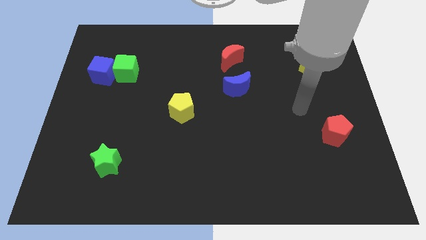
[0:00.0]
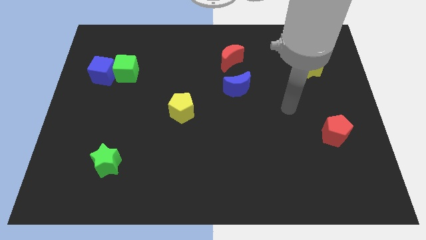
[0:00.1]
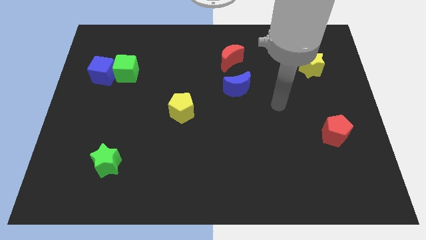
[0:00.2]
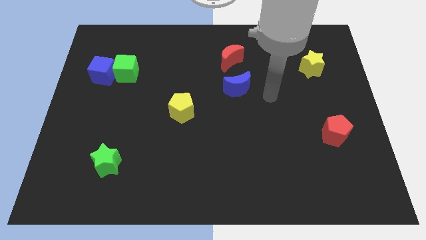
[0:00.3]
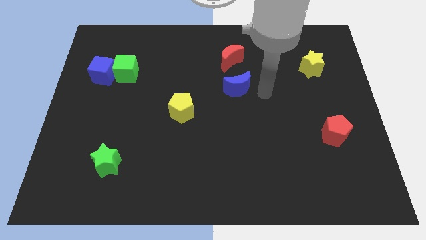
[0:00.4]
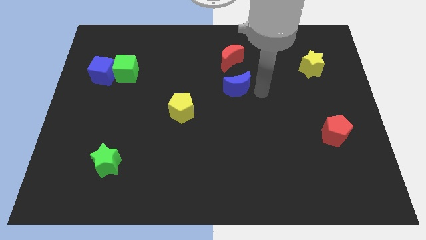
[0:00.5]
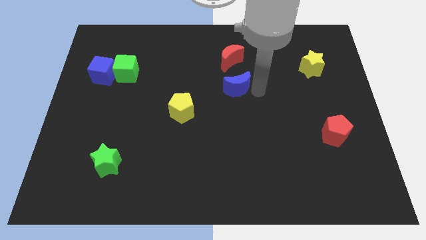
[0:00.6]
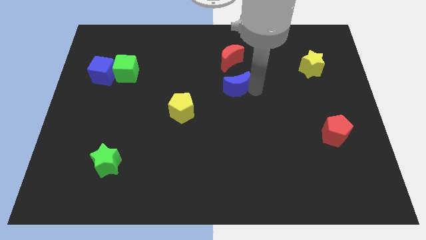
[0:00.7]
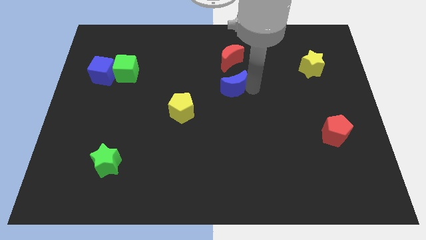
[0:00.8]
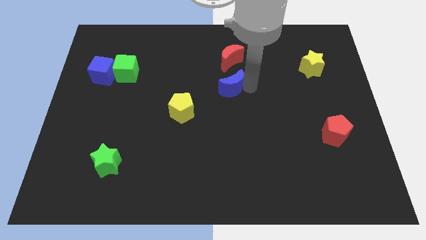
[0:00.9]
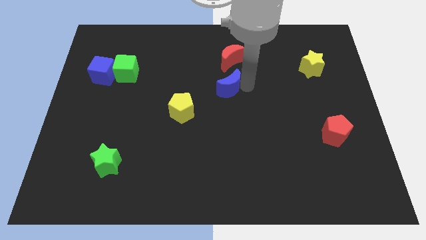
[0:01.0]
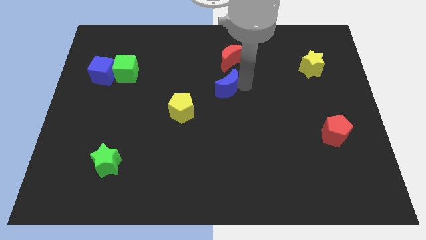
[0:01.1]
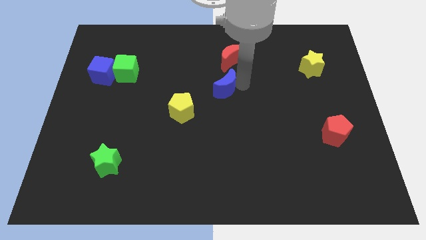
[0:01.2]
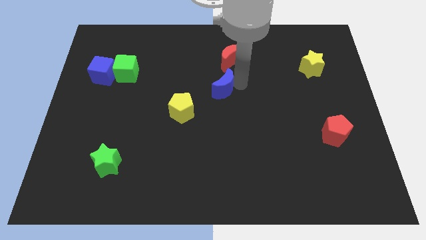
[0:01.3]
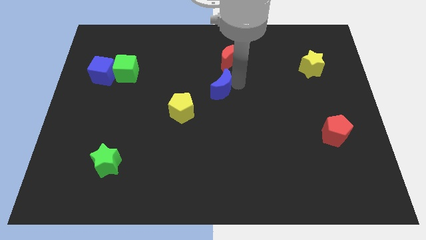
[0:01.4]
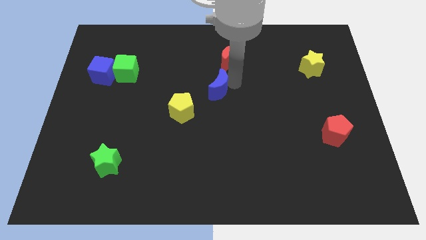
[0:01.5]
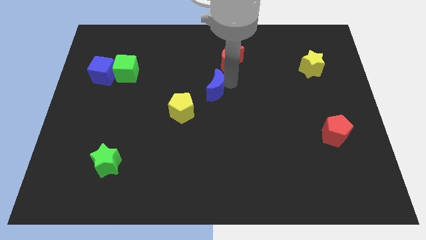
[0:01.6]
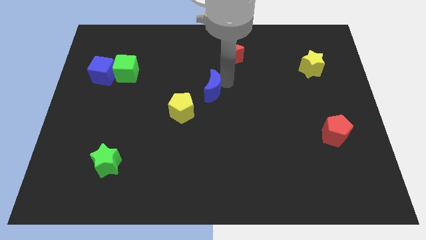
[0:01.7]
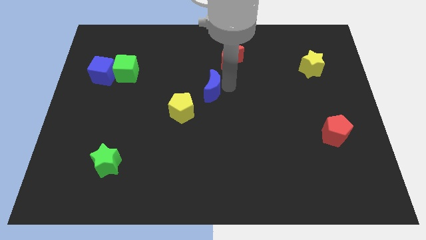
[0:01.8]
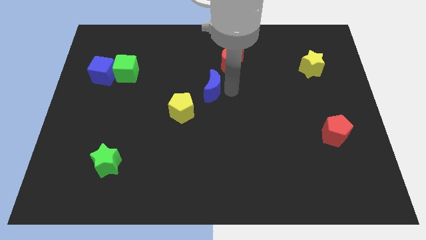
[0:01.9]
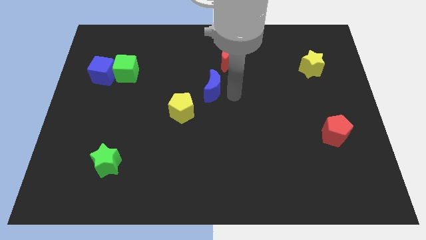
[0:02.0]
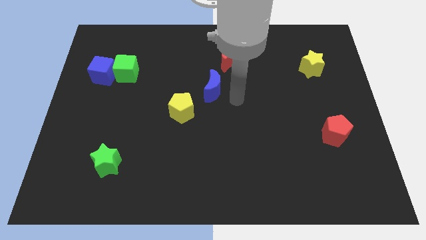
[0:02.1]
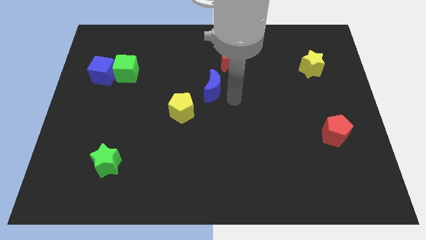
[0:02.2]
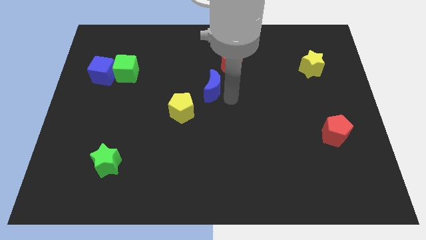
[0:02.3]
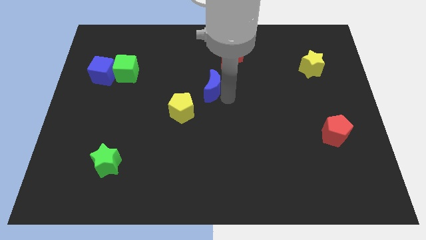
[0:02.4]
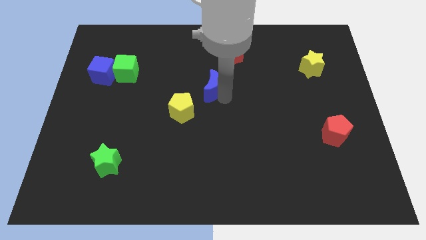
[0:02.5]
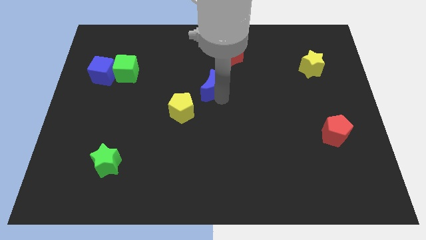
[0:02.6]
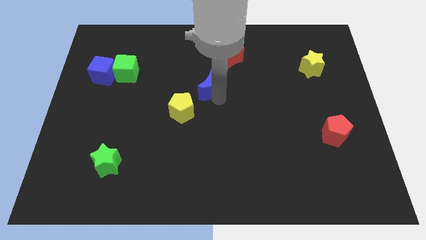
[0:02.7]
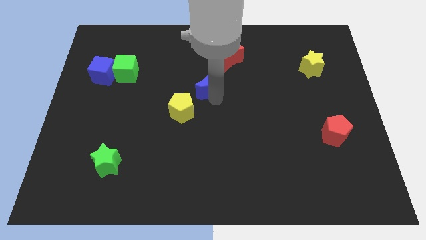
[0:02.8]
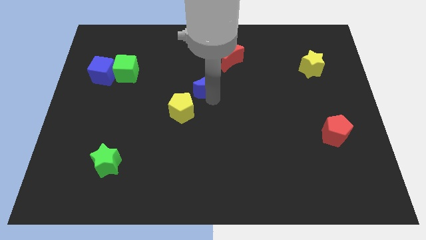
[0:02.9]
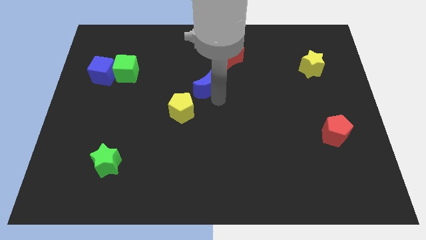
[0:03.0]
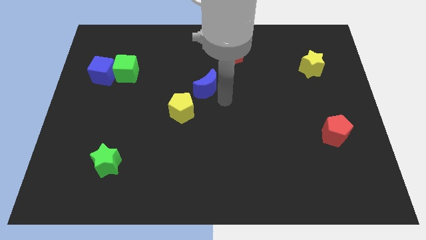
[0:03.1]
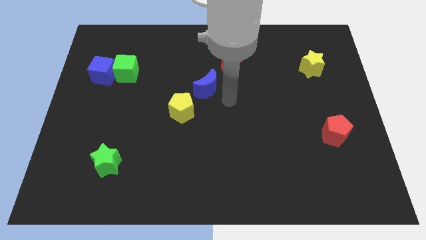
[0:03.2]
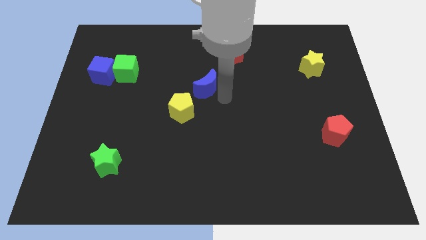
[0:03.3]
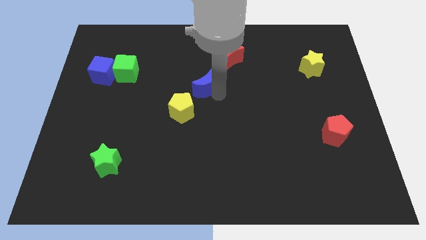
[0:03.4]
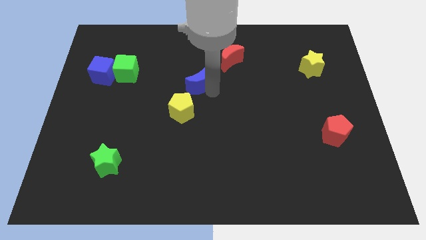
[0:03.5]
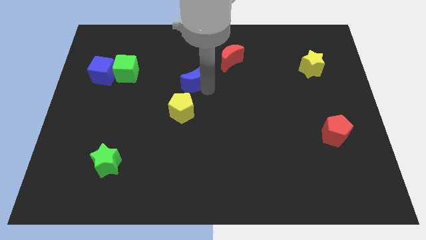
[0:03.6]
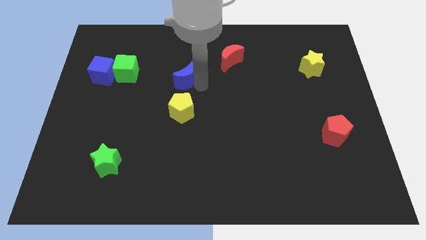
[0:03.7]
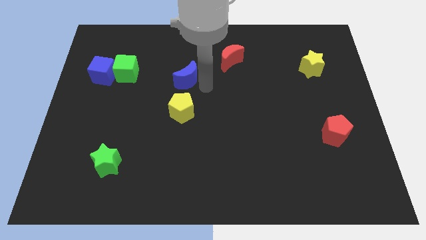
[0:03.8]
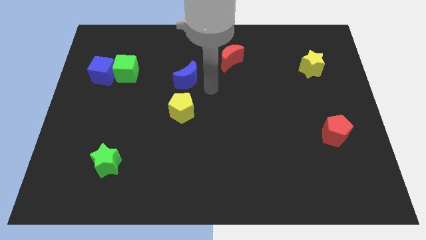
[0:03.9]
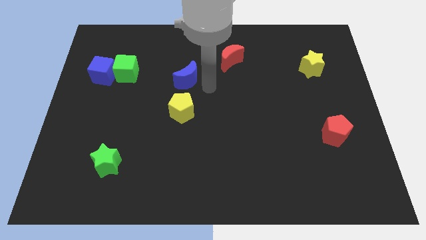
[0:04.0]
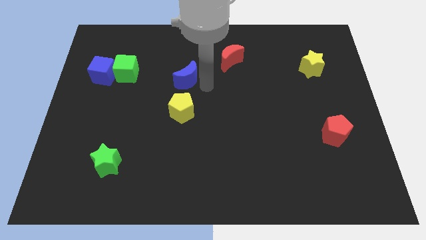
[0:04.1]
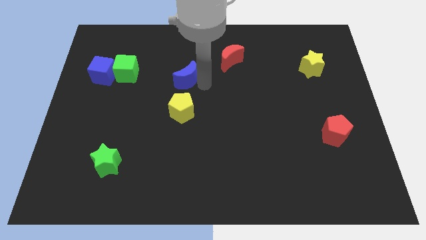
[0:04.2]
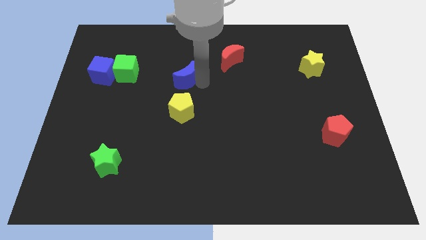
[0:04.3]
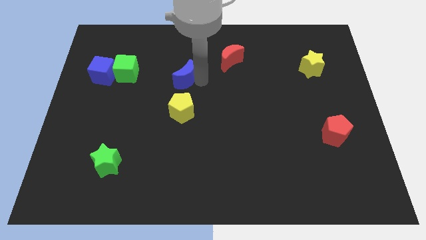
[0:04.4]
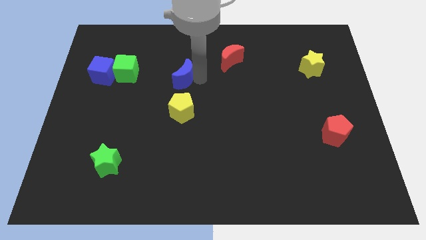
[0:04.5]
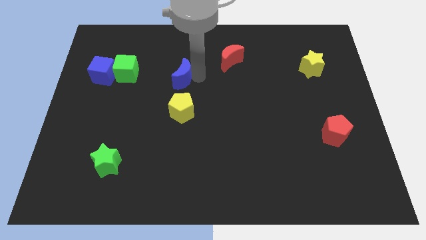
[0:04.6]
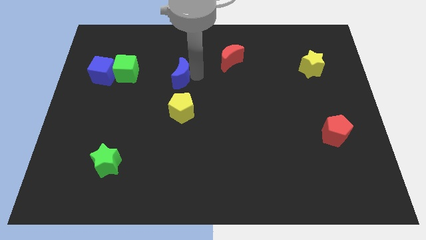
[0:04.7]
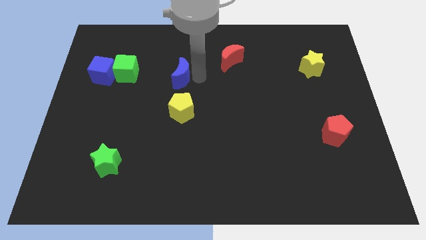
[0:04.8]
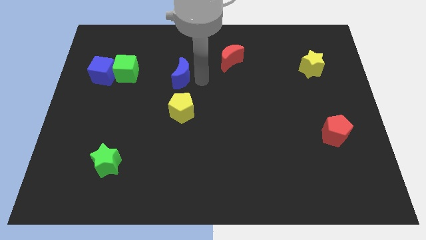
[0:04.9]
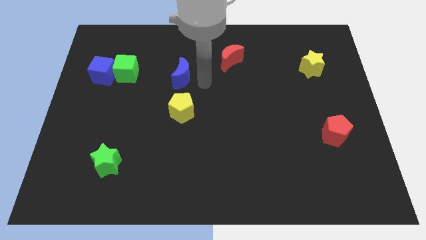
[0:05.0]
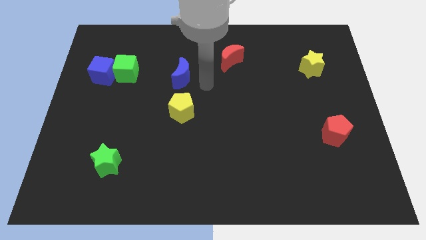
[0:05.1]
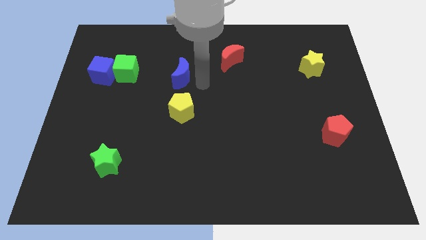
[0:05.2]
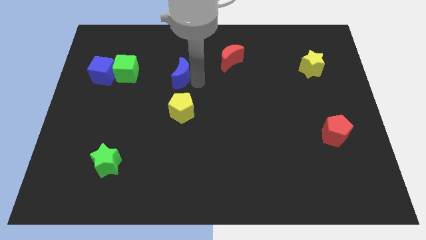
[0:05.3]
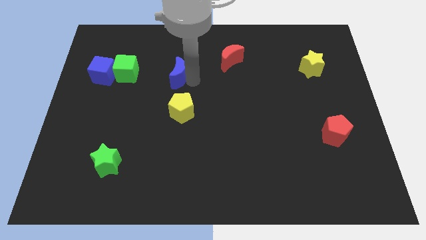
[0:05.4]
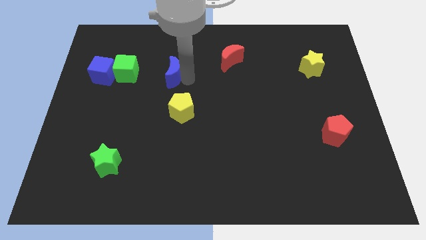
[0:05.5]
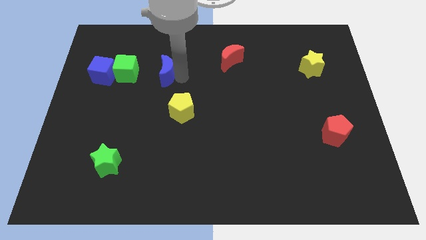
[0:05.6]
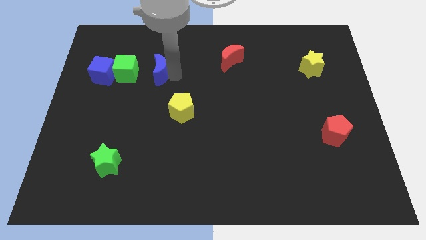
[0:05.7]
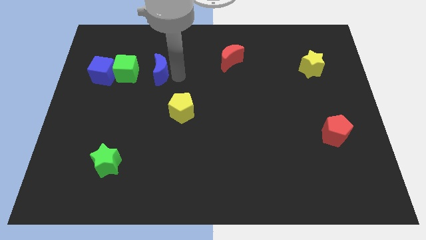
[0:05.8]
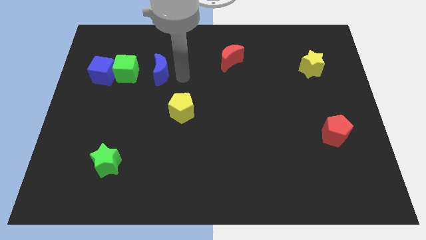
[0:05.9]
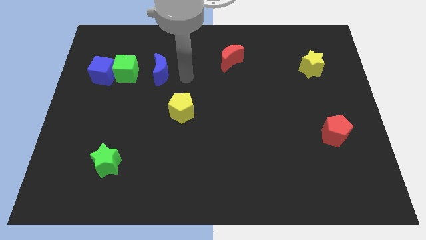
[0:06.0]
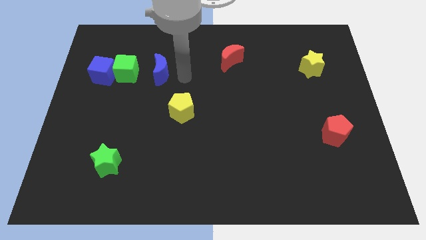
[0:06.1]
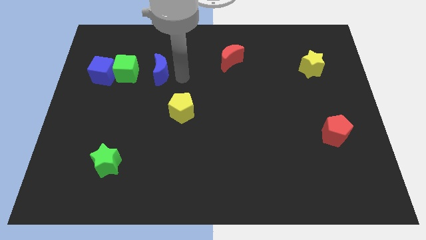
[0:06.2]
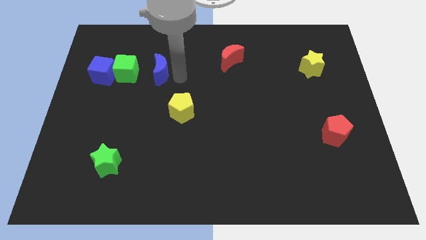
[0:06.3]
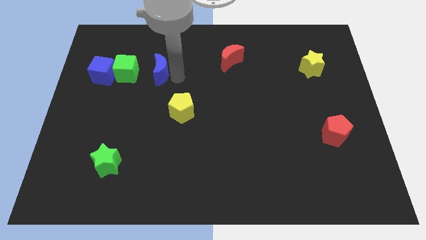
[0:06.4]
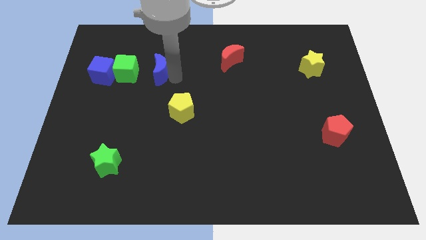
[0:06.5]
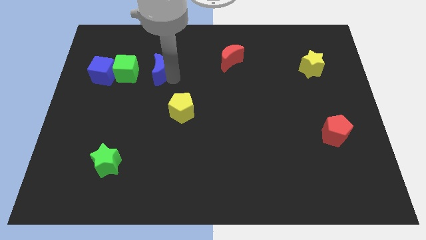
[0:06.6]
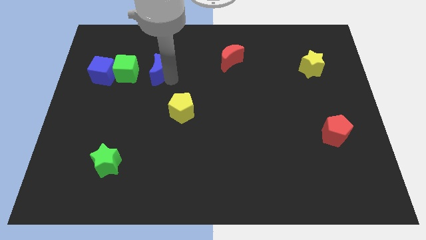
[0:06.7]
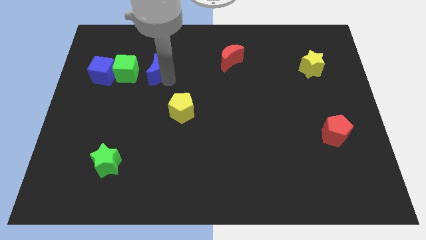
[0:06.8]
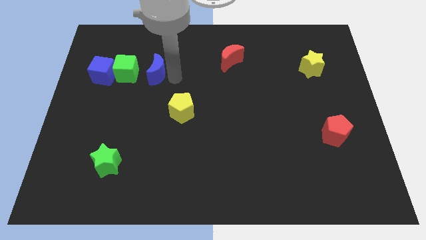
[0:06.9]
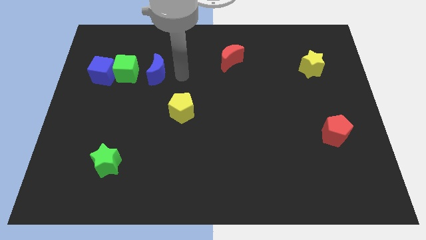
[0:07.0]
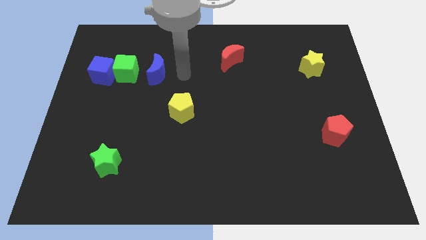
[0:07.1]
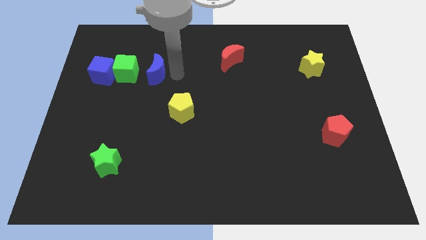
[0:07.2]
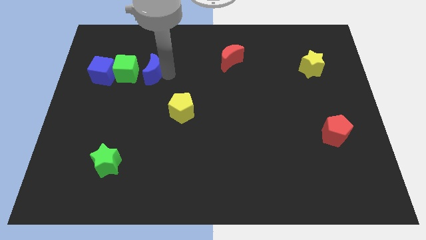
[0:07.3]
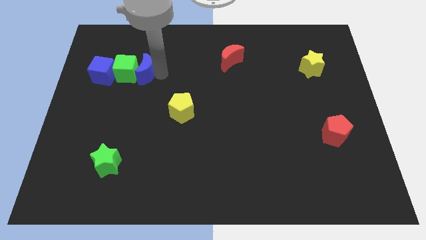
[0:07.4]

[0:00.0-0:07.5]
put the blue moon close to the green cube

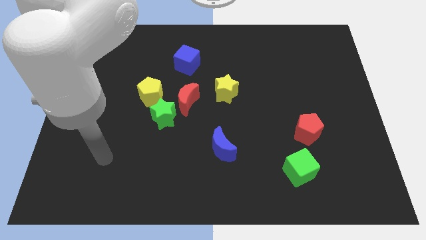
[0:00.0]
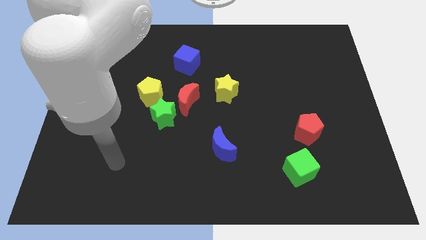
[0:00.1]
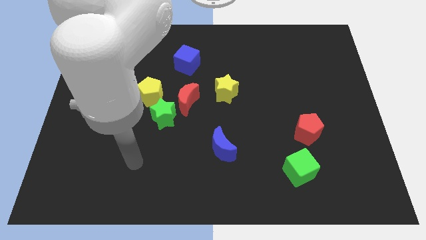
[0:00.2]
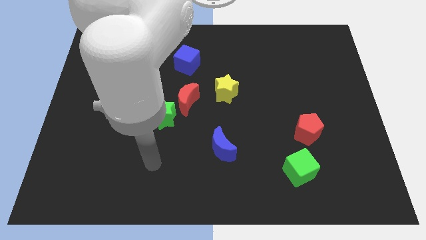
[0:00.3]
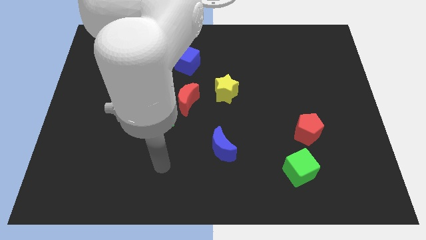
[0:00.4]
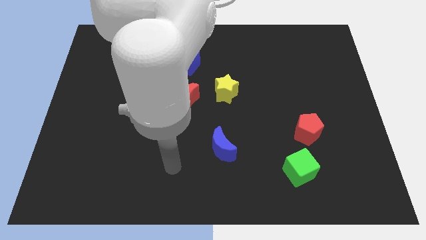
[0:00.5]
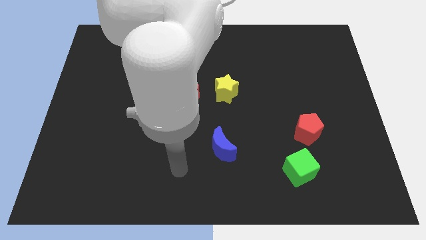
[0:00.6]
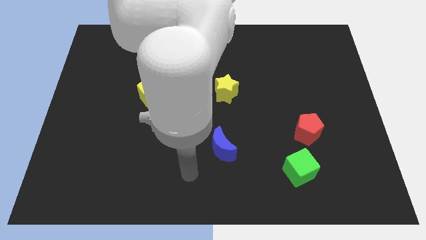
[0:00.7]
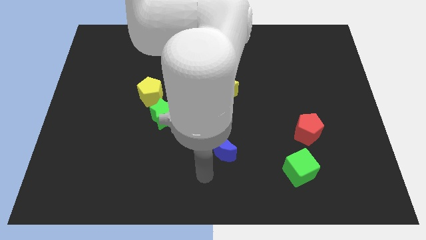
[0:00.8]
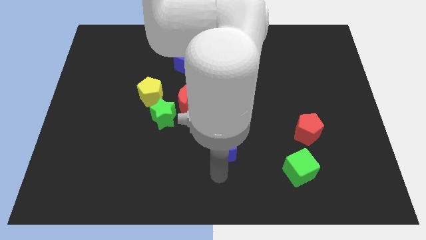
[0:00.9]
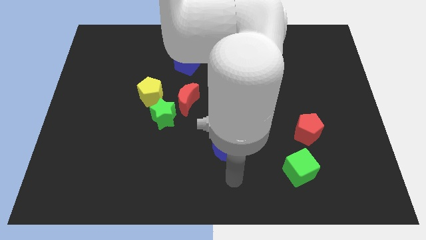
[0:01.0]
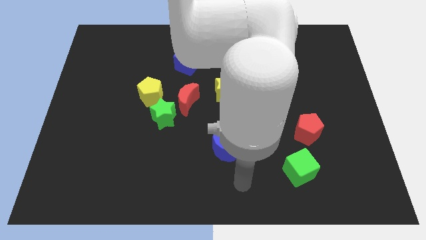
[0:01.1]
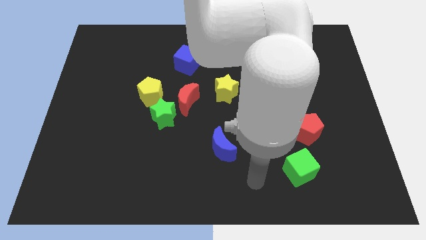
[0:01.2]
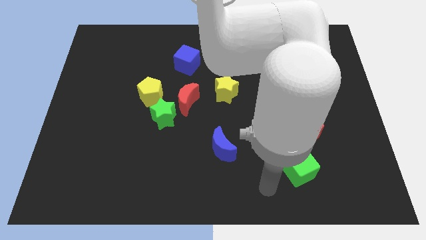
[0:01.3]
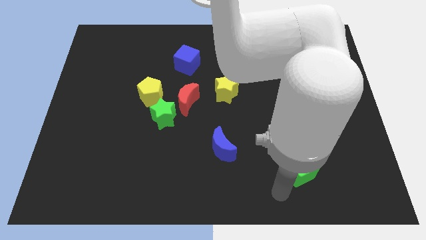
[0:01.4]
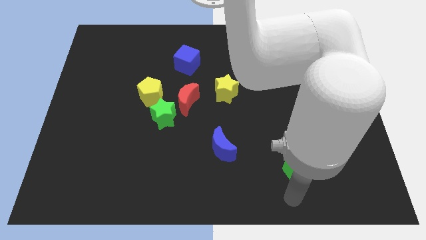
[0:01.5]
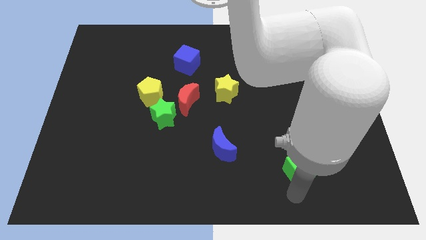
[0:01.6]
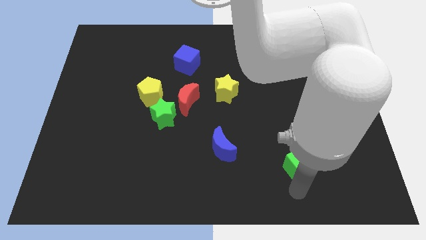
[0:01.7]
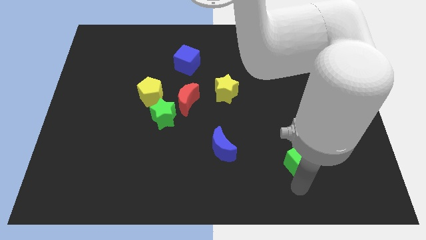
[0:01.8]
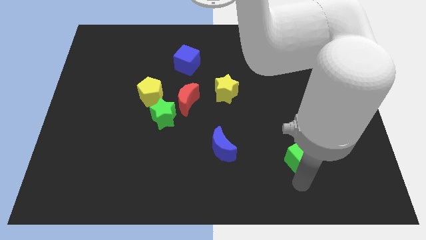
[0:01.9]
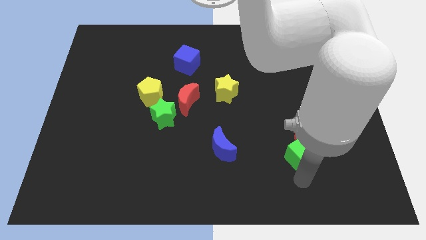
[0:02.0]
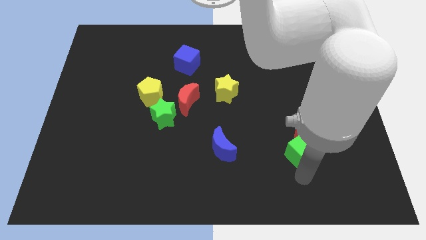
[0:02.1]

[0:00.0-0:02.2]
slide the green cube towards the red pentagon
